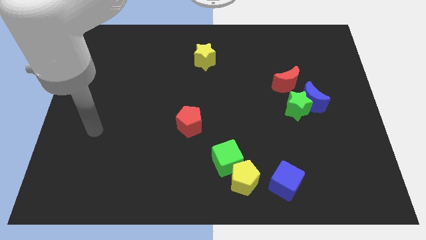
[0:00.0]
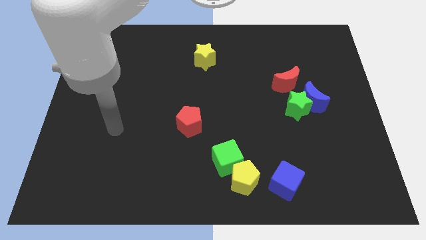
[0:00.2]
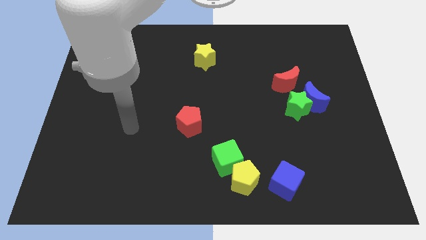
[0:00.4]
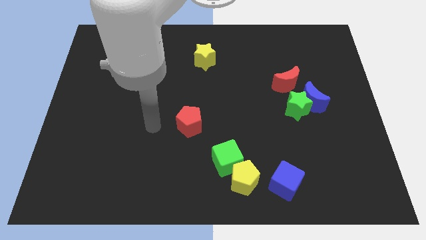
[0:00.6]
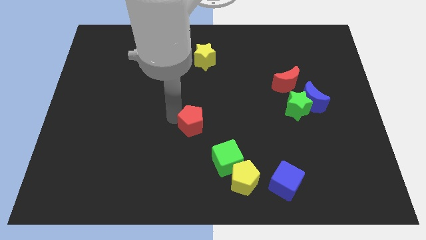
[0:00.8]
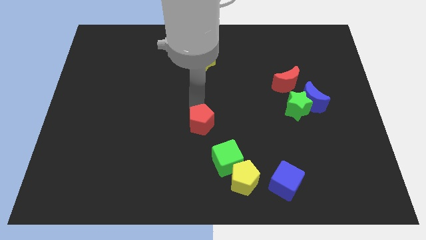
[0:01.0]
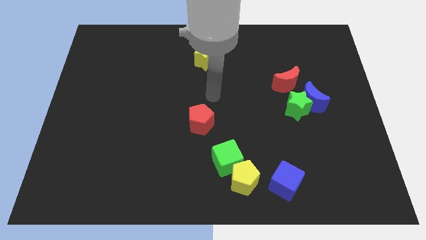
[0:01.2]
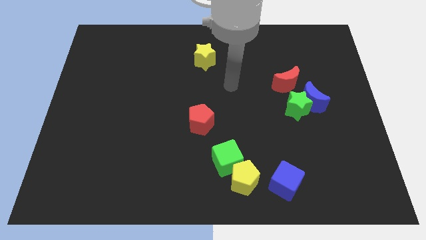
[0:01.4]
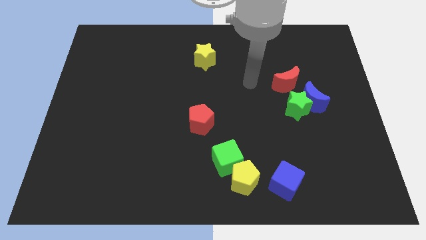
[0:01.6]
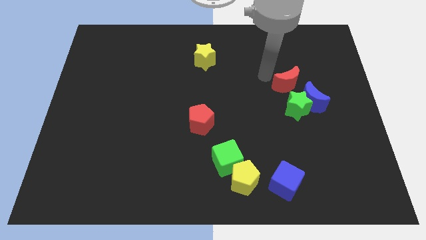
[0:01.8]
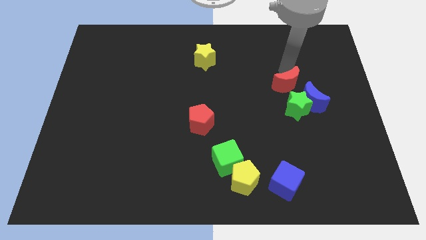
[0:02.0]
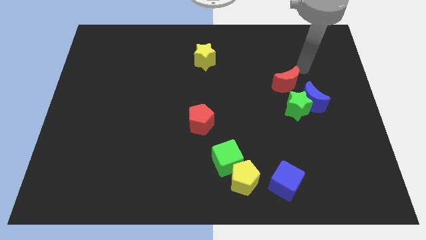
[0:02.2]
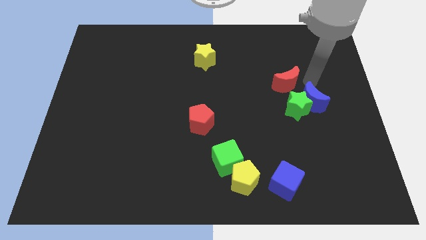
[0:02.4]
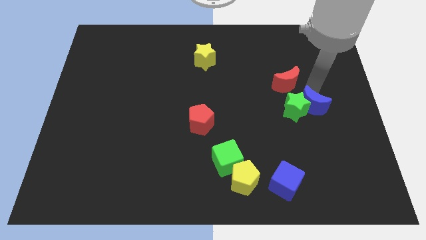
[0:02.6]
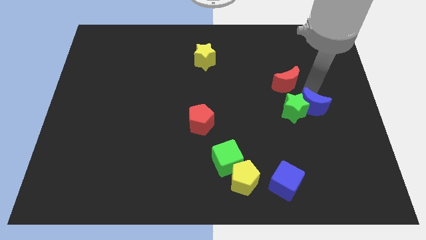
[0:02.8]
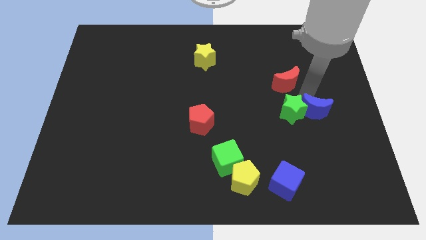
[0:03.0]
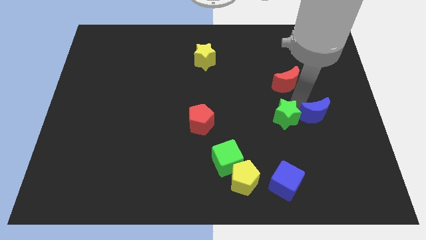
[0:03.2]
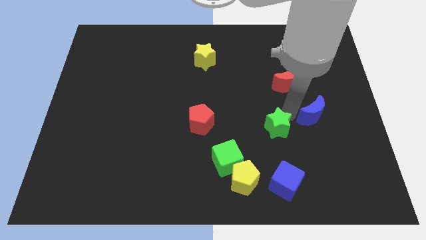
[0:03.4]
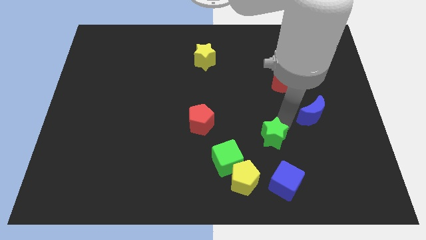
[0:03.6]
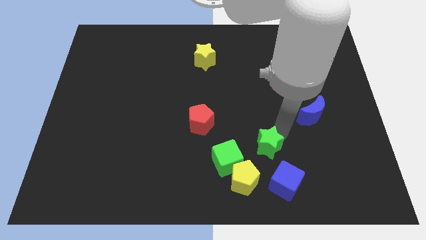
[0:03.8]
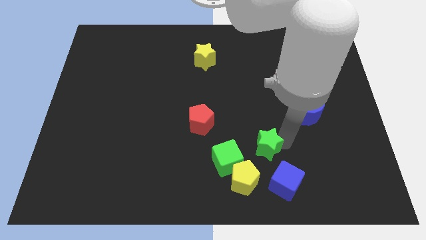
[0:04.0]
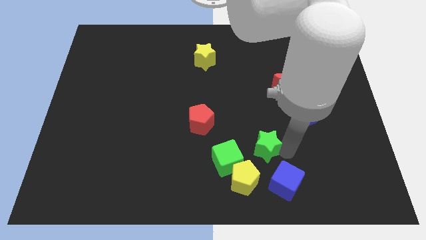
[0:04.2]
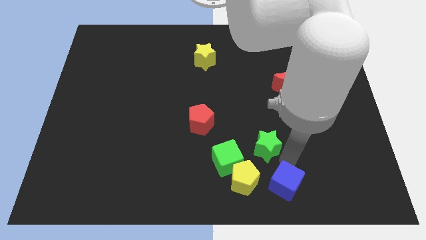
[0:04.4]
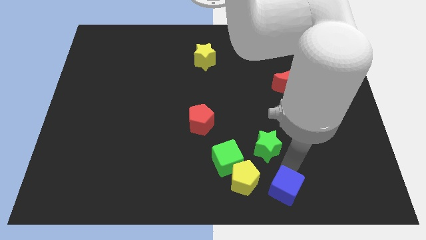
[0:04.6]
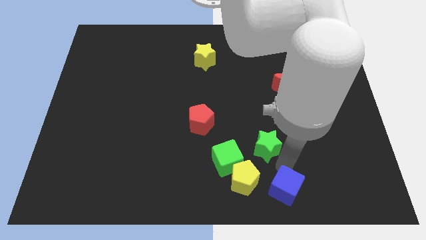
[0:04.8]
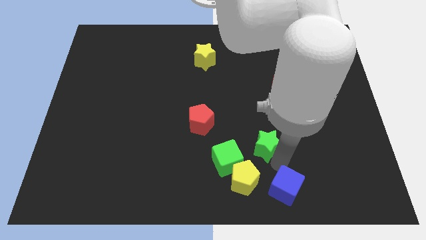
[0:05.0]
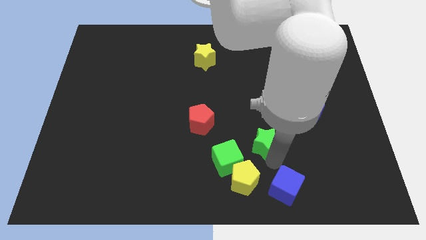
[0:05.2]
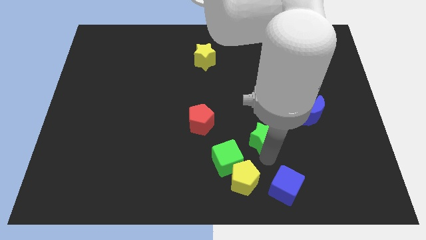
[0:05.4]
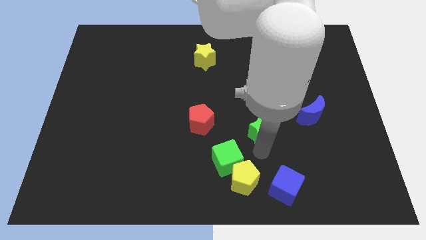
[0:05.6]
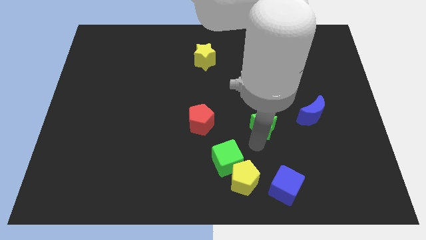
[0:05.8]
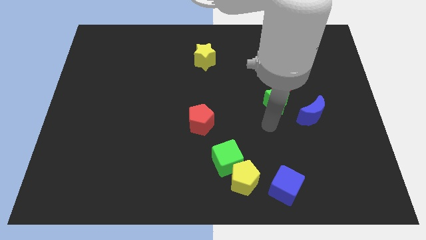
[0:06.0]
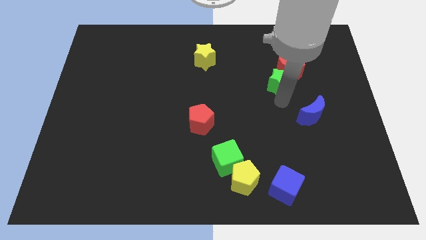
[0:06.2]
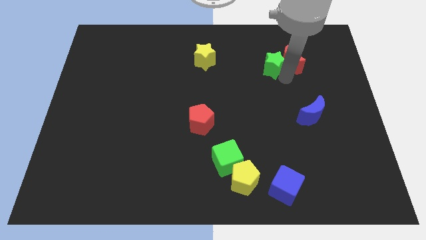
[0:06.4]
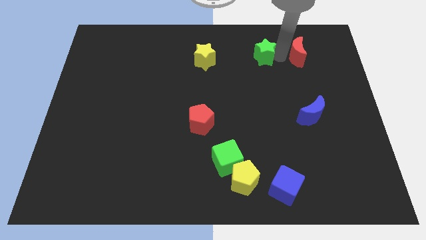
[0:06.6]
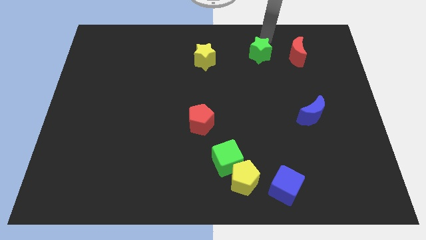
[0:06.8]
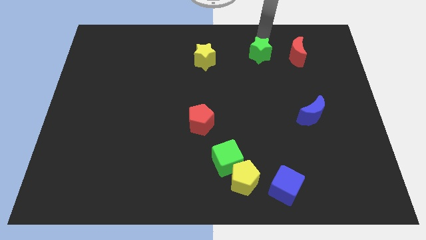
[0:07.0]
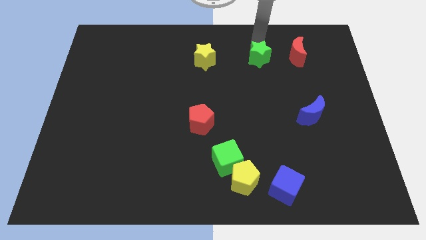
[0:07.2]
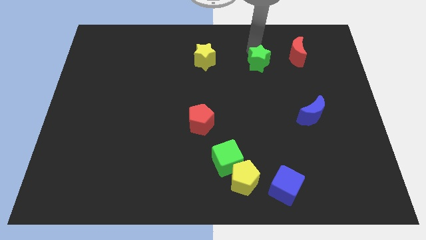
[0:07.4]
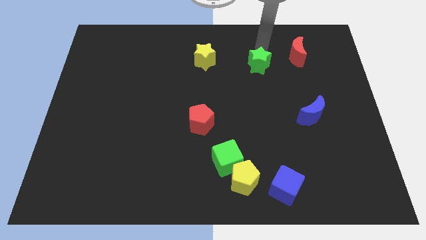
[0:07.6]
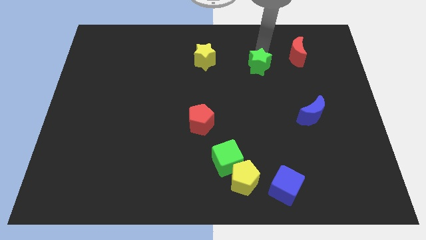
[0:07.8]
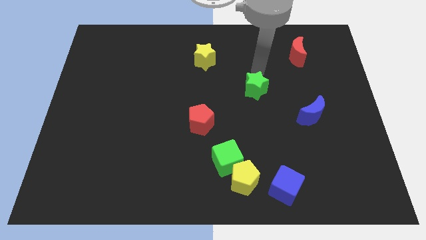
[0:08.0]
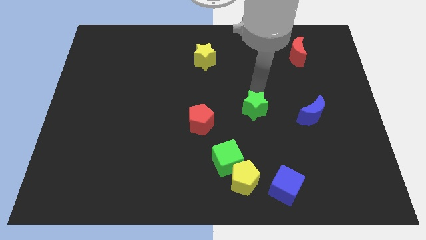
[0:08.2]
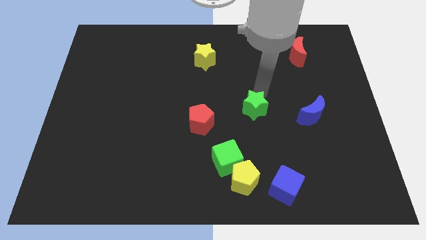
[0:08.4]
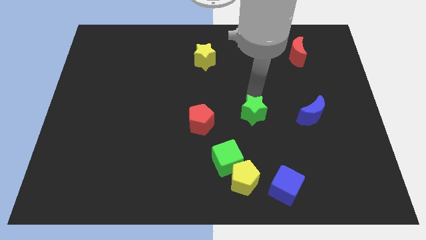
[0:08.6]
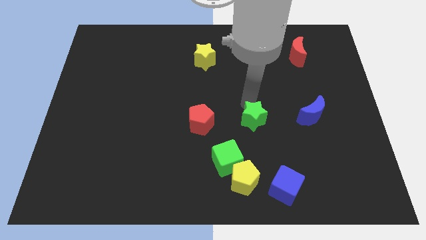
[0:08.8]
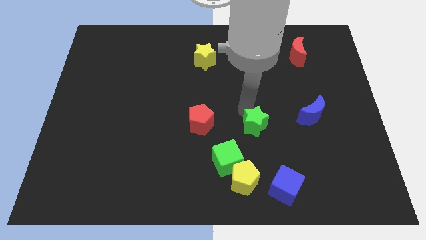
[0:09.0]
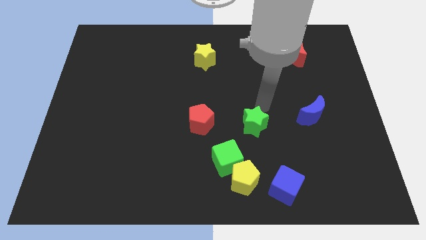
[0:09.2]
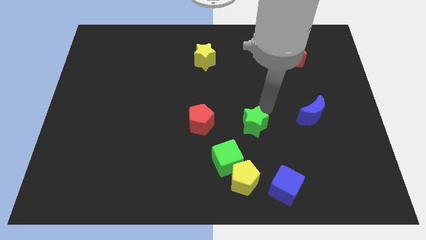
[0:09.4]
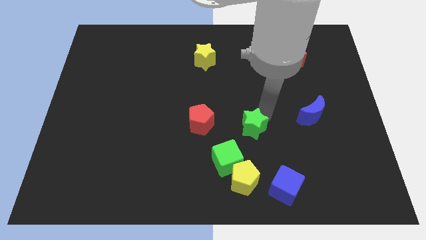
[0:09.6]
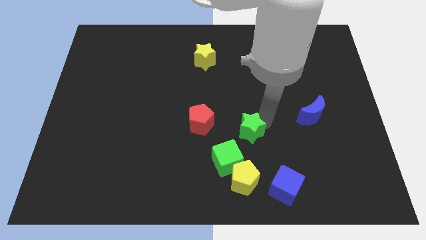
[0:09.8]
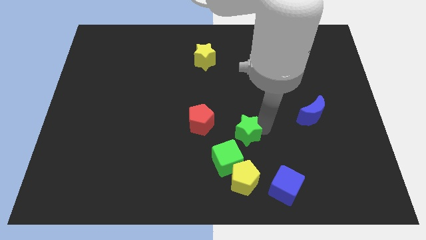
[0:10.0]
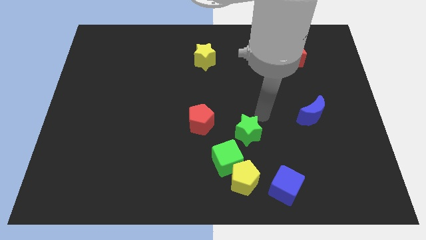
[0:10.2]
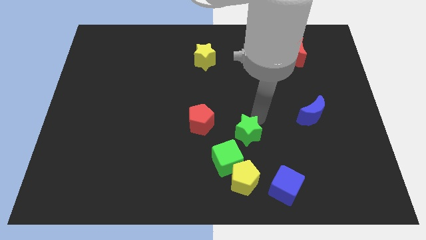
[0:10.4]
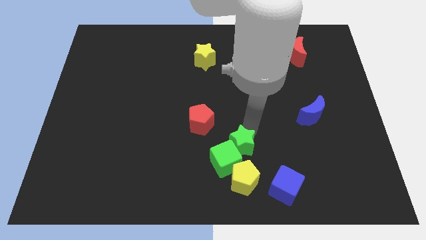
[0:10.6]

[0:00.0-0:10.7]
move the green star next to the green cube

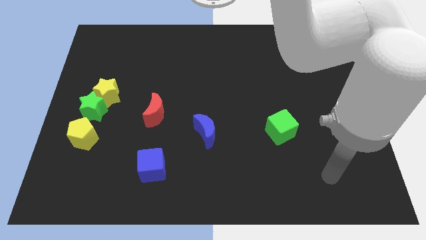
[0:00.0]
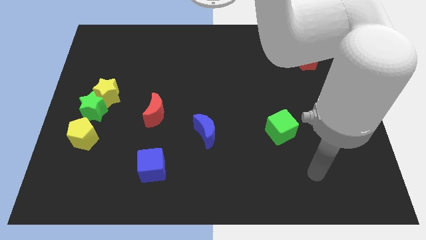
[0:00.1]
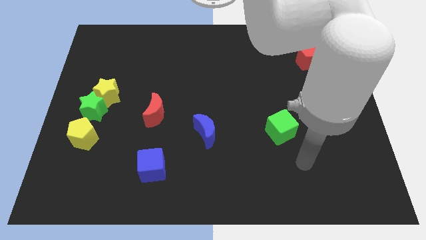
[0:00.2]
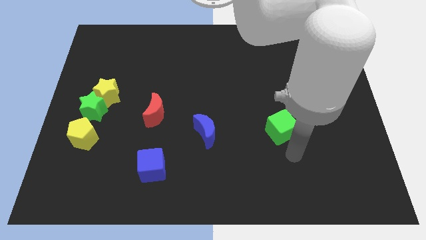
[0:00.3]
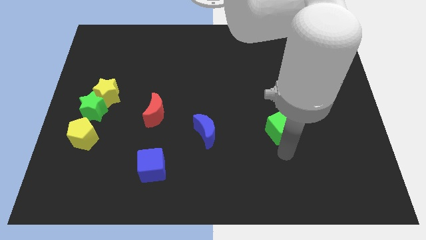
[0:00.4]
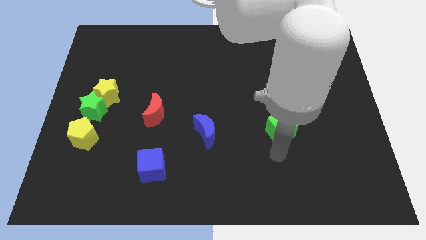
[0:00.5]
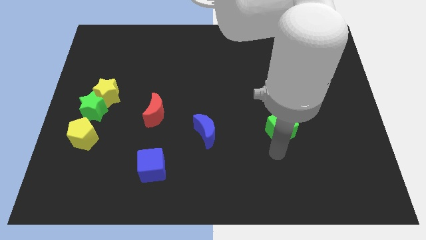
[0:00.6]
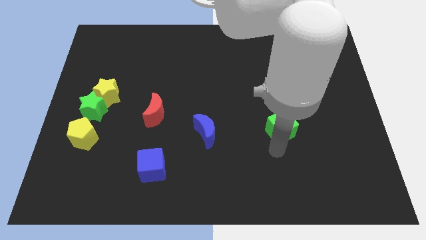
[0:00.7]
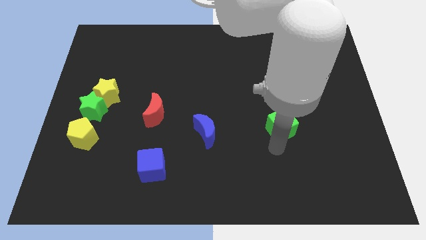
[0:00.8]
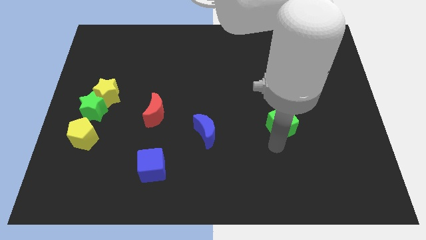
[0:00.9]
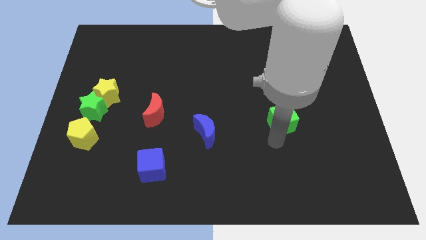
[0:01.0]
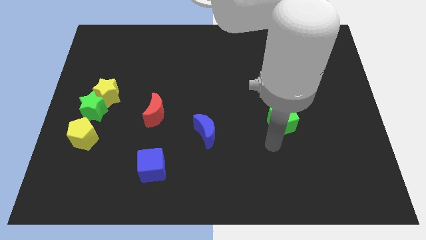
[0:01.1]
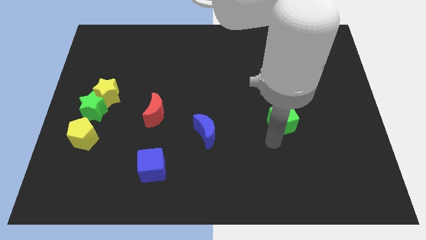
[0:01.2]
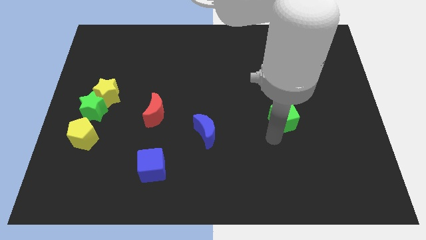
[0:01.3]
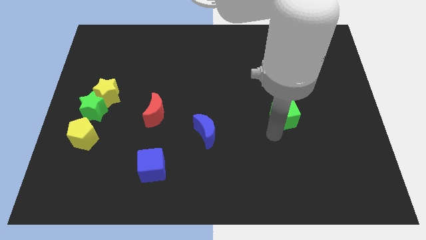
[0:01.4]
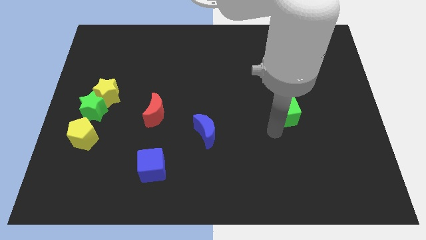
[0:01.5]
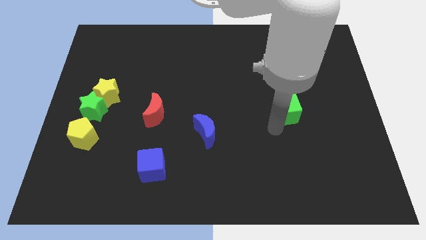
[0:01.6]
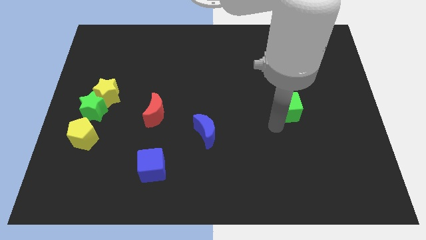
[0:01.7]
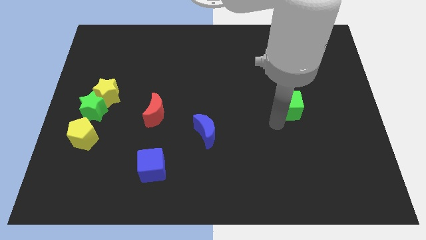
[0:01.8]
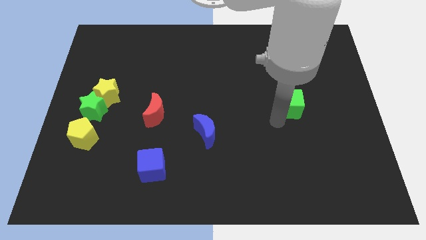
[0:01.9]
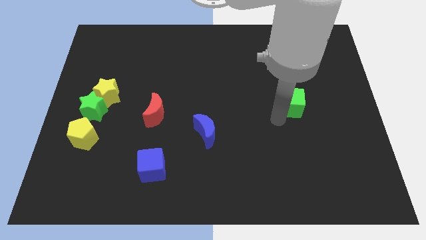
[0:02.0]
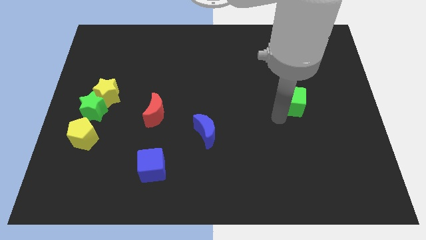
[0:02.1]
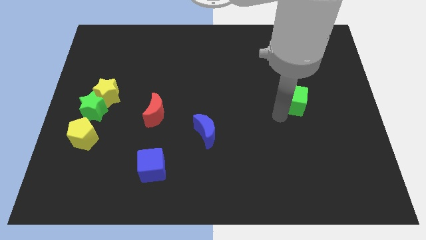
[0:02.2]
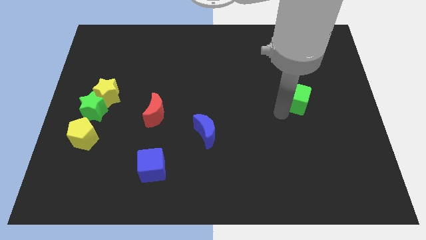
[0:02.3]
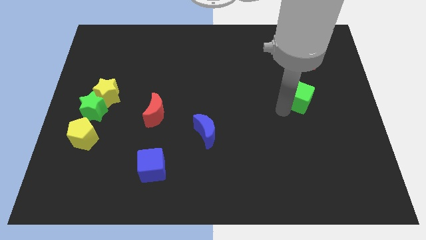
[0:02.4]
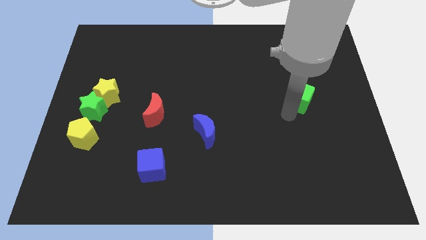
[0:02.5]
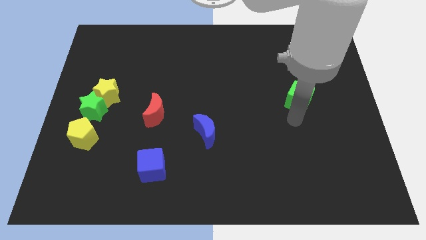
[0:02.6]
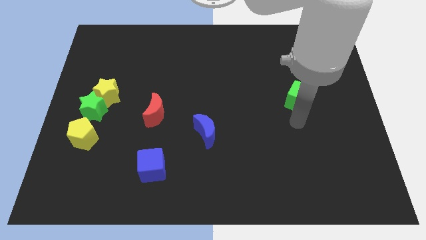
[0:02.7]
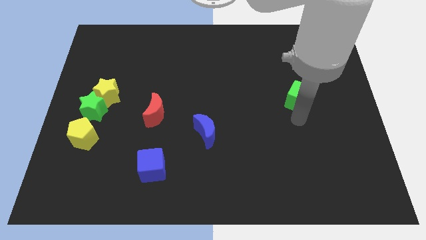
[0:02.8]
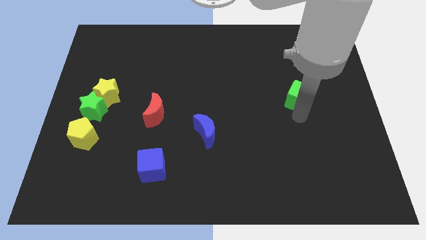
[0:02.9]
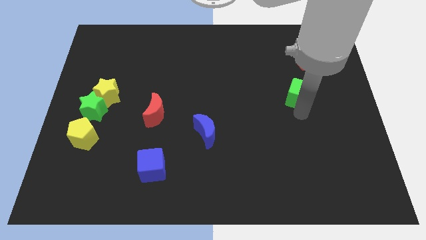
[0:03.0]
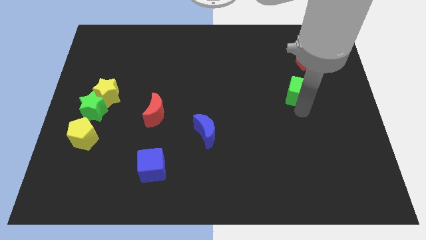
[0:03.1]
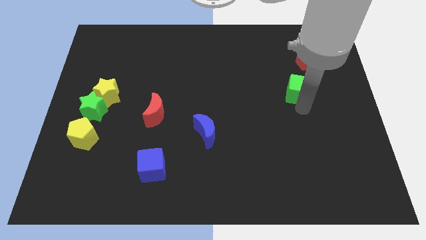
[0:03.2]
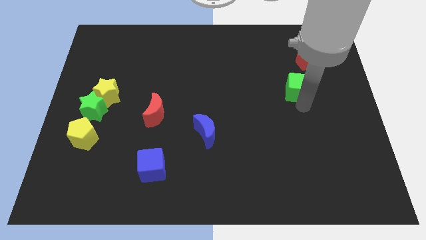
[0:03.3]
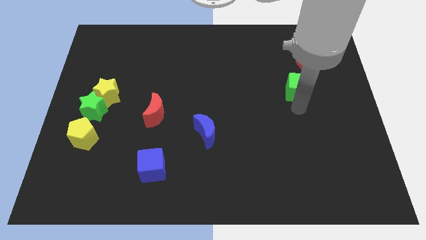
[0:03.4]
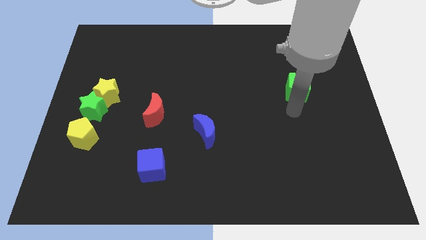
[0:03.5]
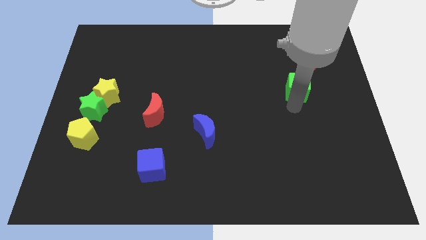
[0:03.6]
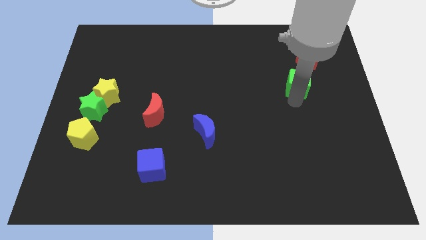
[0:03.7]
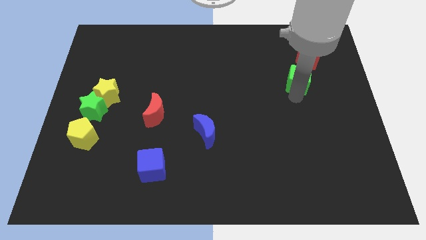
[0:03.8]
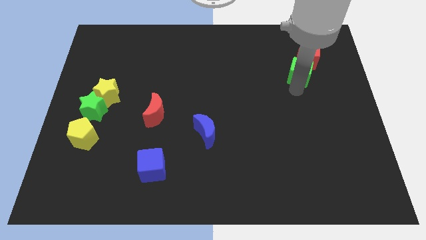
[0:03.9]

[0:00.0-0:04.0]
move the green cube towards the red pentagon
